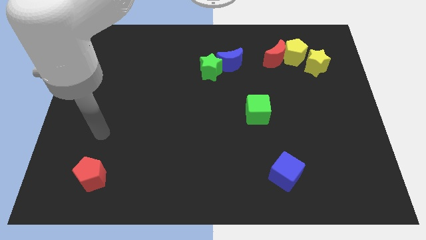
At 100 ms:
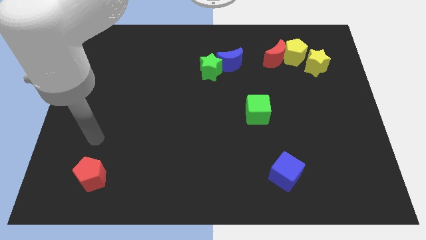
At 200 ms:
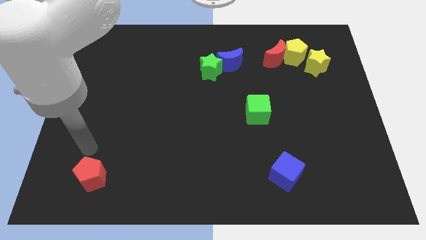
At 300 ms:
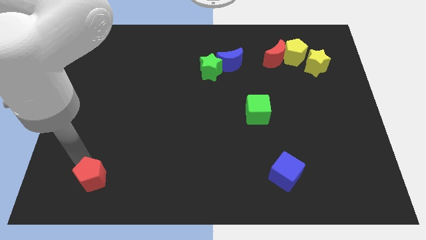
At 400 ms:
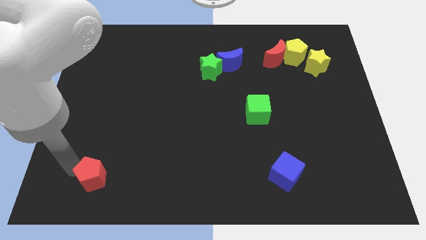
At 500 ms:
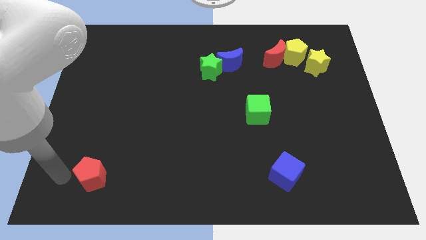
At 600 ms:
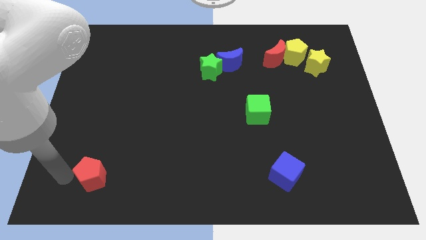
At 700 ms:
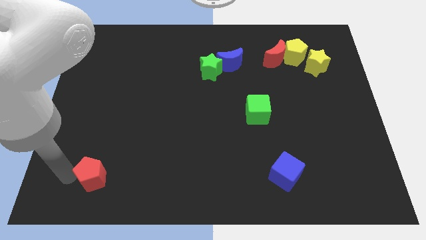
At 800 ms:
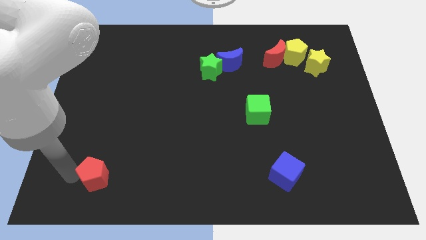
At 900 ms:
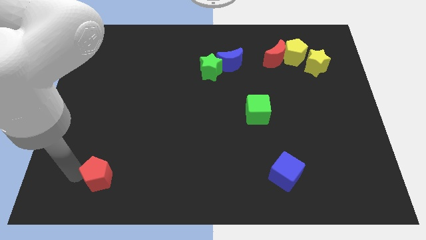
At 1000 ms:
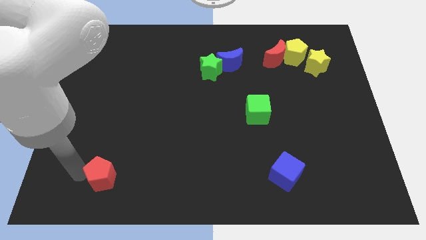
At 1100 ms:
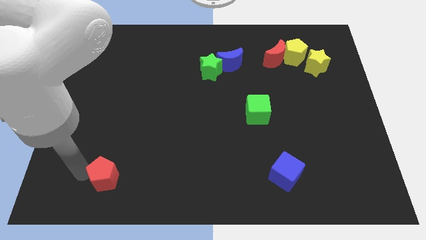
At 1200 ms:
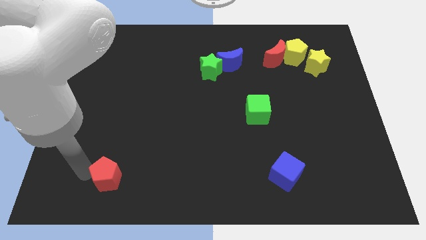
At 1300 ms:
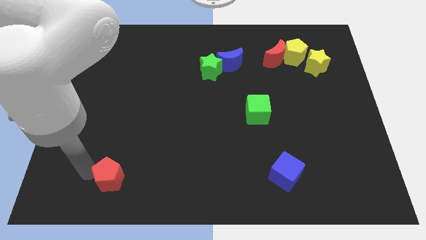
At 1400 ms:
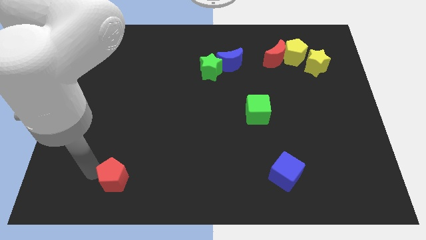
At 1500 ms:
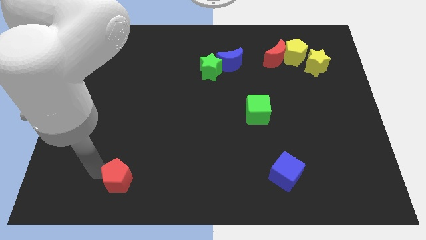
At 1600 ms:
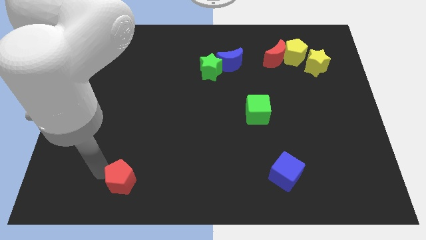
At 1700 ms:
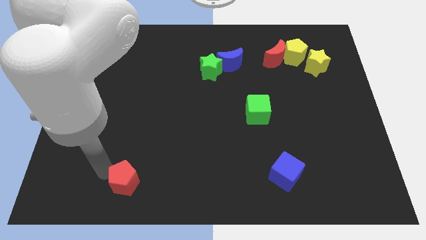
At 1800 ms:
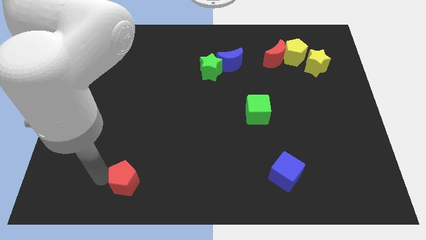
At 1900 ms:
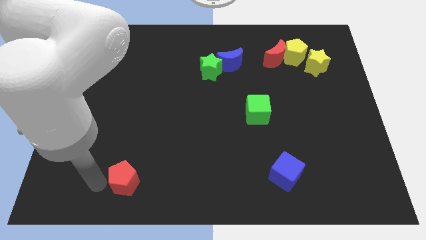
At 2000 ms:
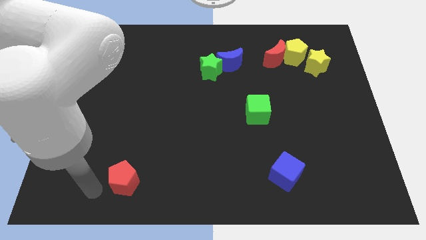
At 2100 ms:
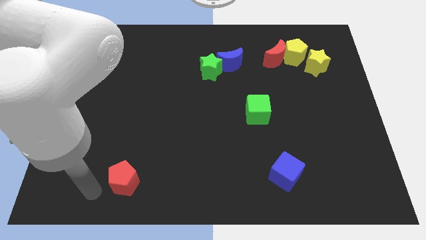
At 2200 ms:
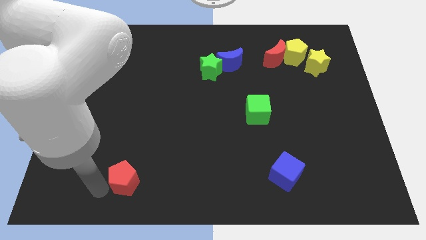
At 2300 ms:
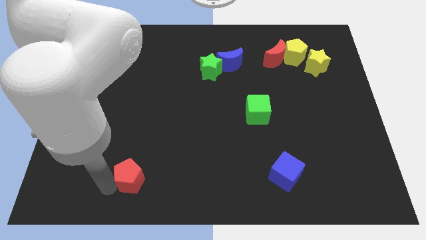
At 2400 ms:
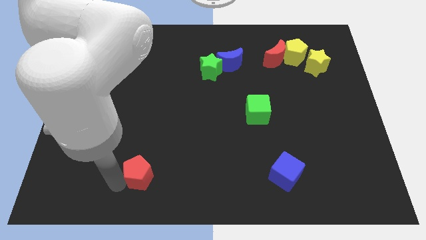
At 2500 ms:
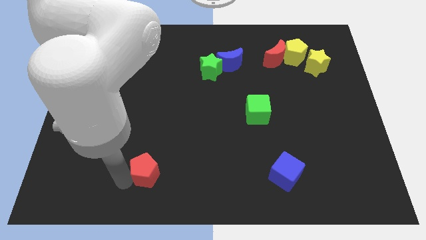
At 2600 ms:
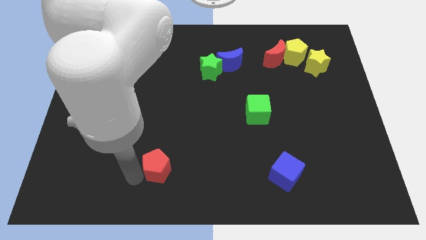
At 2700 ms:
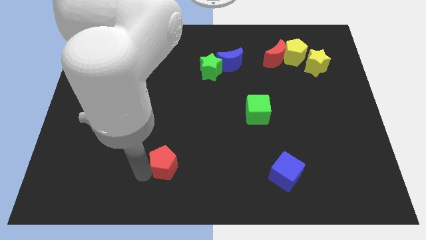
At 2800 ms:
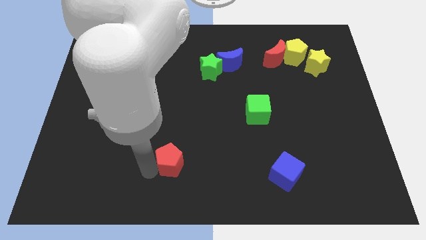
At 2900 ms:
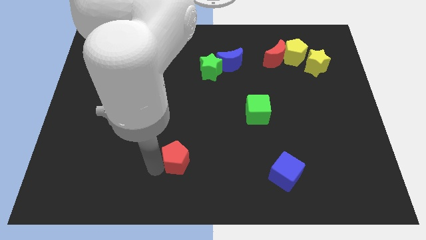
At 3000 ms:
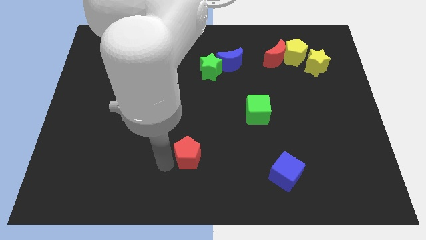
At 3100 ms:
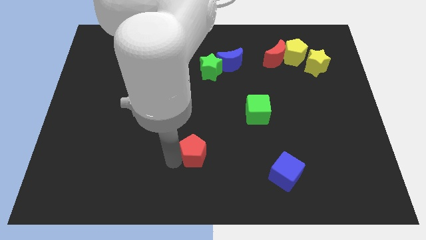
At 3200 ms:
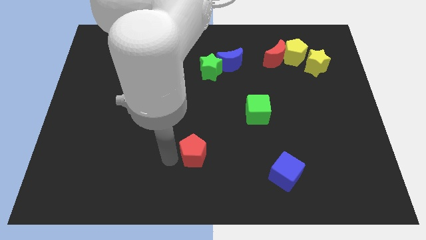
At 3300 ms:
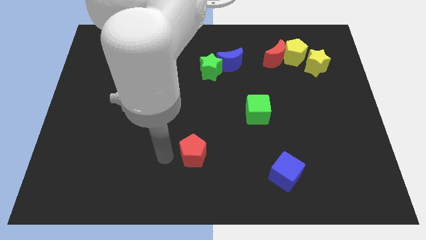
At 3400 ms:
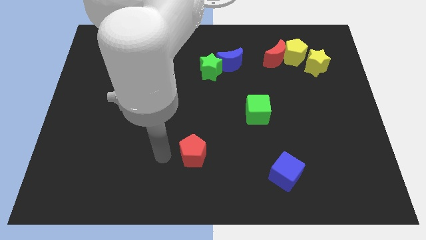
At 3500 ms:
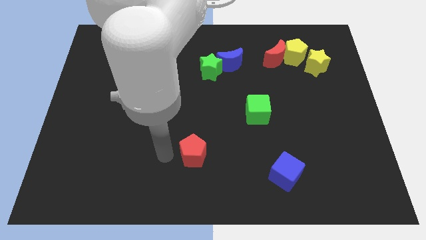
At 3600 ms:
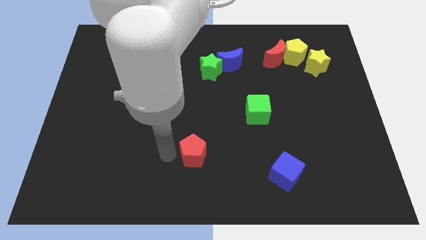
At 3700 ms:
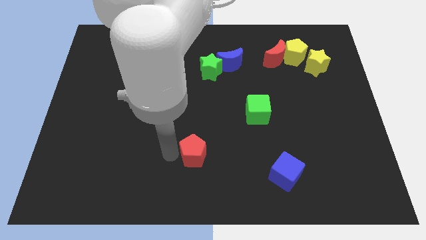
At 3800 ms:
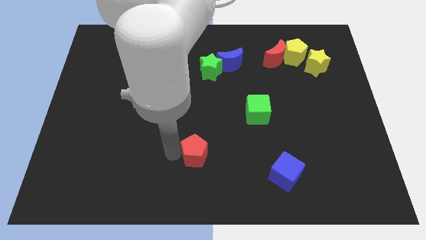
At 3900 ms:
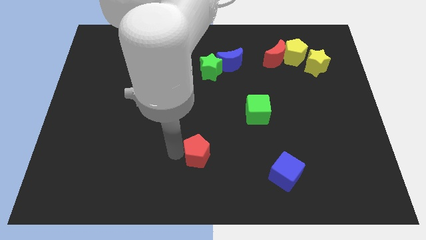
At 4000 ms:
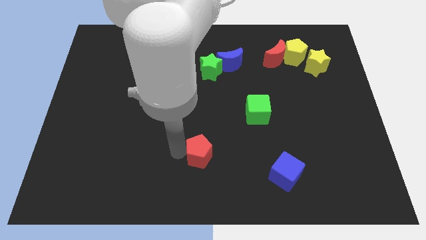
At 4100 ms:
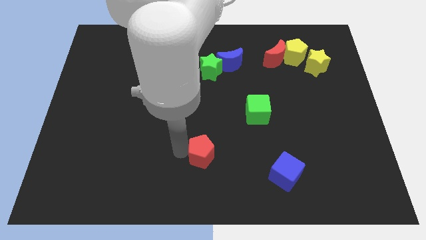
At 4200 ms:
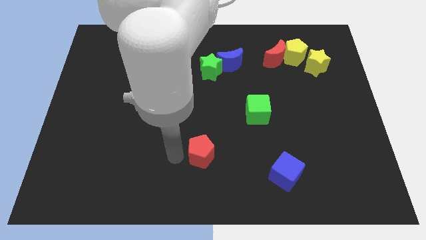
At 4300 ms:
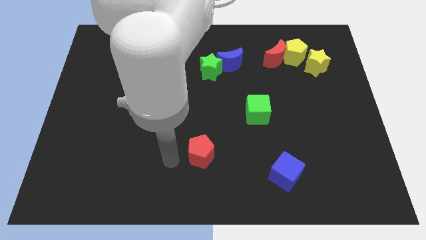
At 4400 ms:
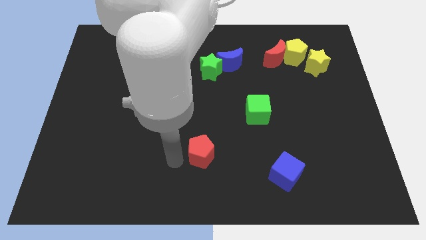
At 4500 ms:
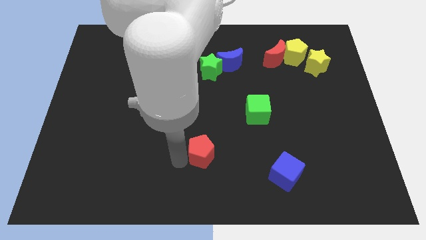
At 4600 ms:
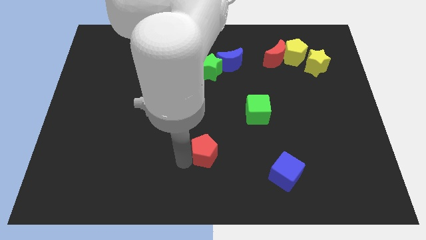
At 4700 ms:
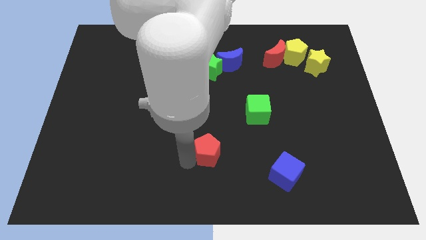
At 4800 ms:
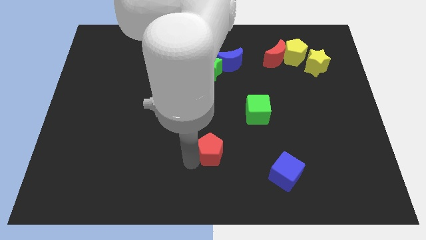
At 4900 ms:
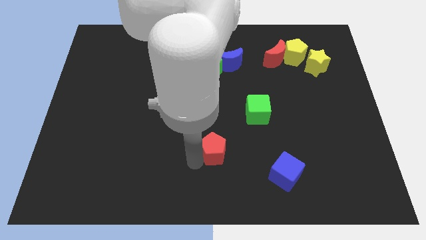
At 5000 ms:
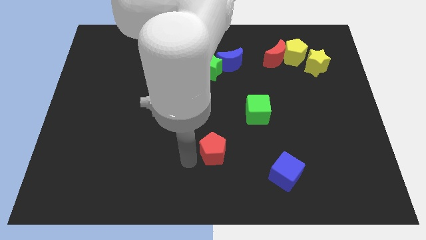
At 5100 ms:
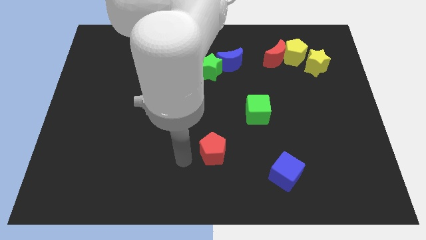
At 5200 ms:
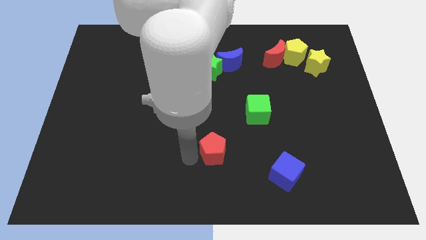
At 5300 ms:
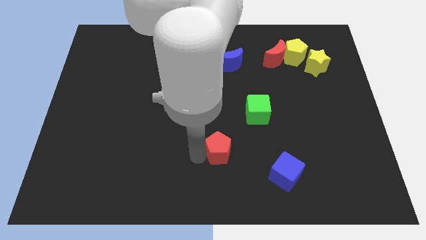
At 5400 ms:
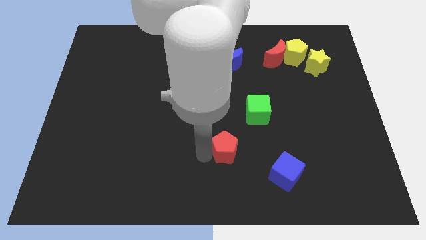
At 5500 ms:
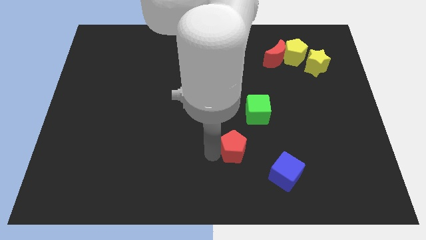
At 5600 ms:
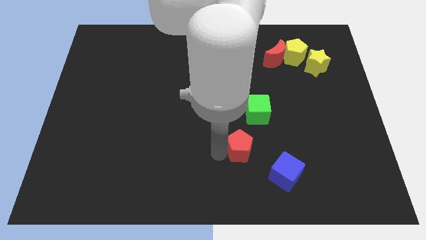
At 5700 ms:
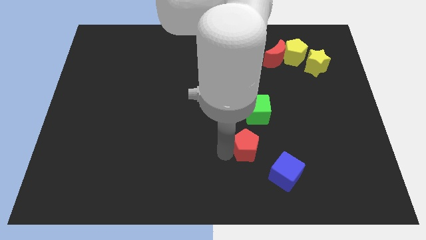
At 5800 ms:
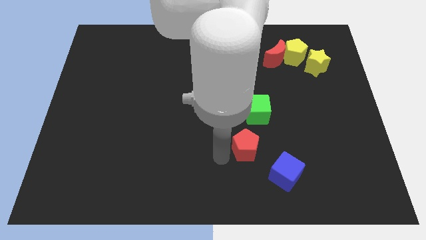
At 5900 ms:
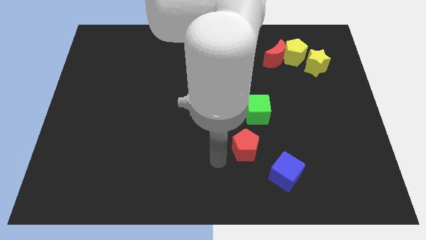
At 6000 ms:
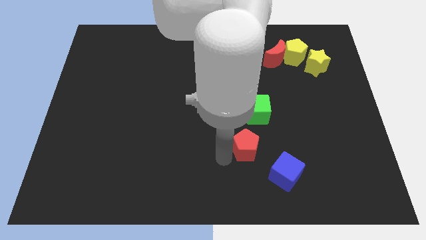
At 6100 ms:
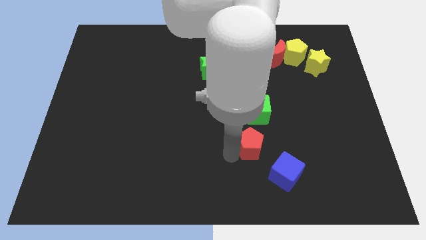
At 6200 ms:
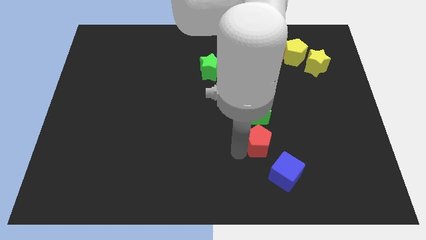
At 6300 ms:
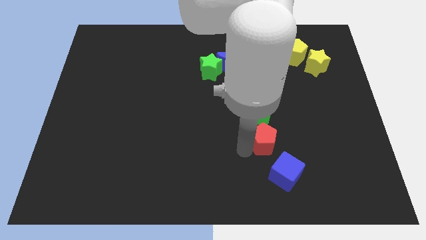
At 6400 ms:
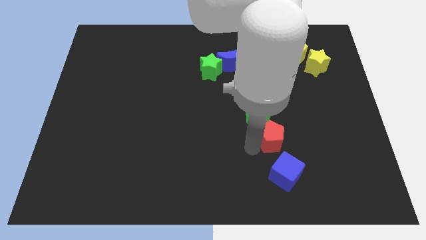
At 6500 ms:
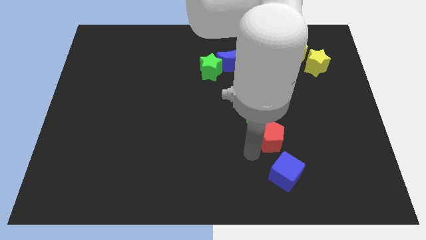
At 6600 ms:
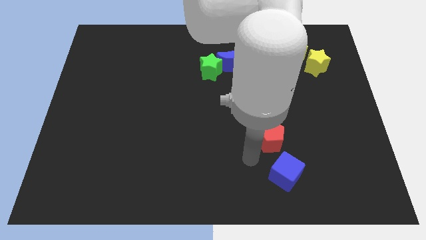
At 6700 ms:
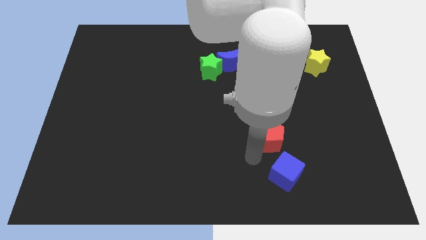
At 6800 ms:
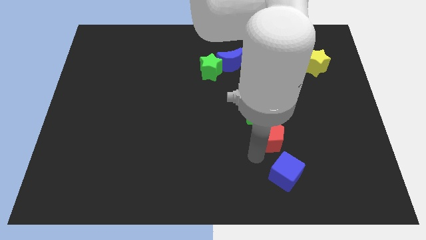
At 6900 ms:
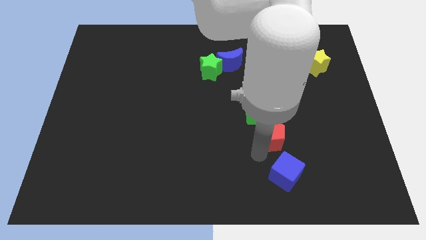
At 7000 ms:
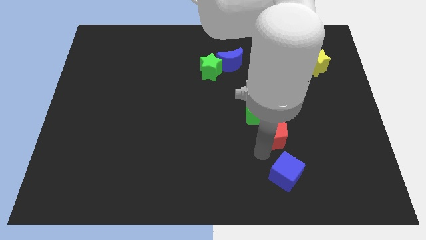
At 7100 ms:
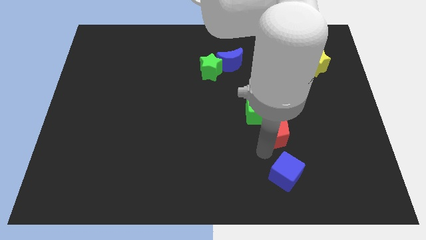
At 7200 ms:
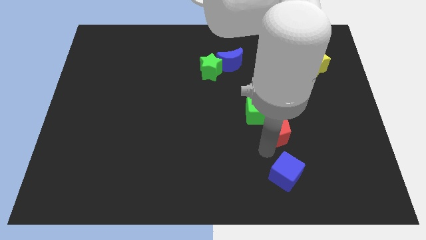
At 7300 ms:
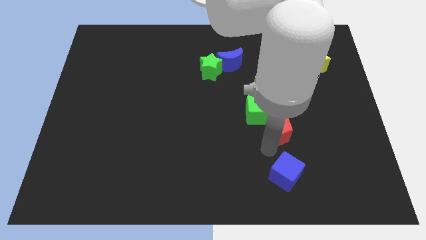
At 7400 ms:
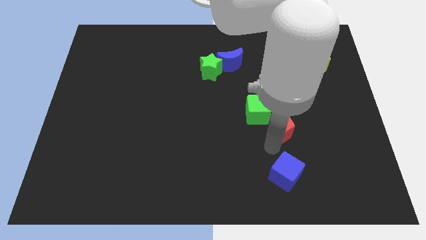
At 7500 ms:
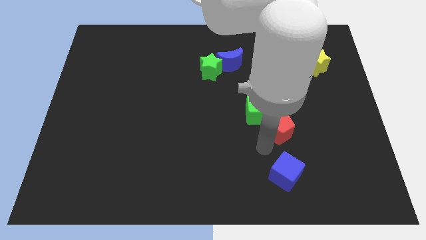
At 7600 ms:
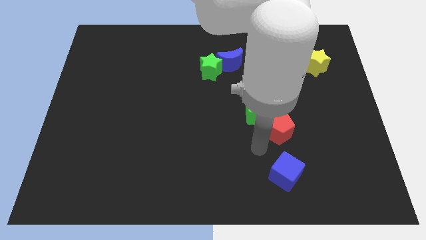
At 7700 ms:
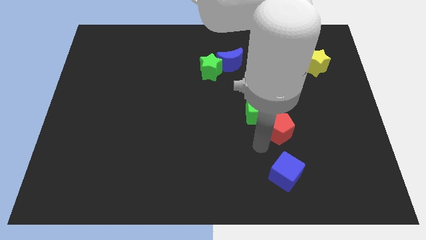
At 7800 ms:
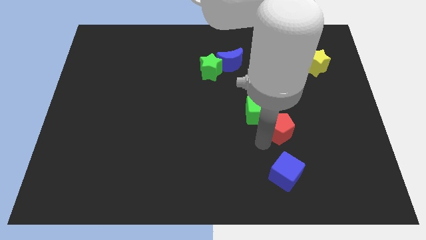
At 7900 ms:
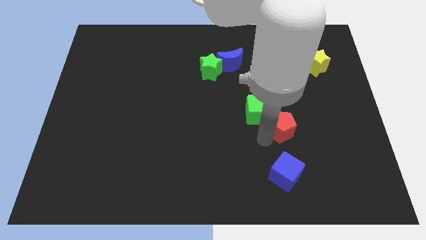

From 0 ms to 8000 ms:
put the red pentagon to the right of the green cube
